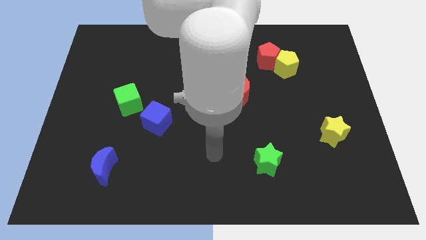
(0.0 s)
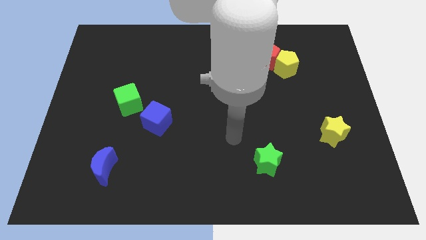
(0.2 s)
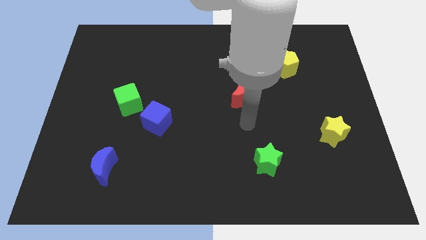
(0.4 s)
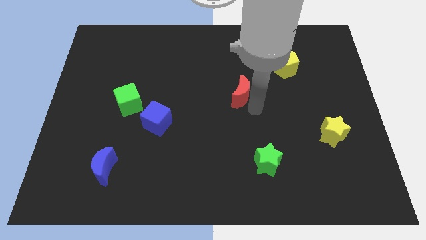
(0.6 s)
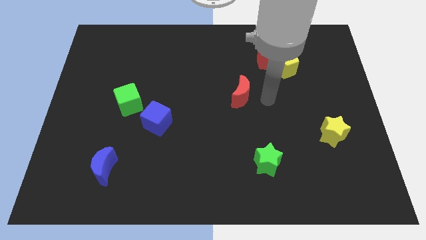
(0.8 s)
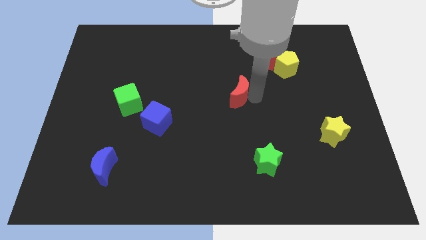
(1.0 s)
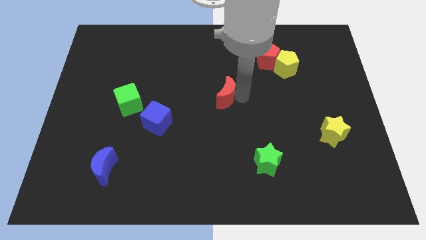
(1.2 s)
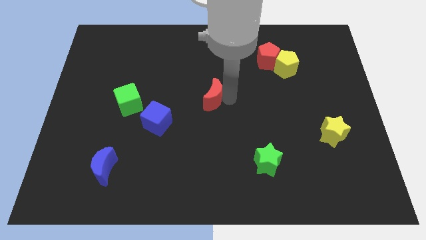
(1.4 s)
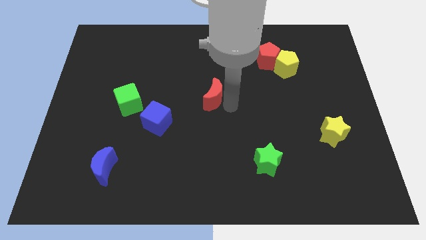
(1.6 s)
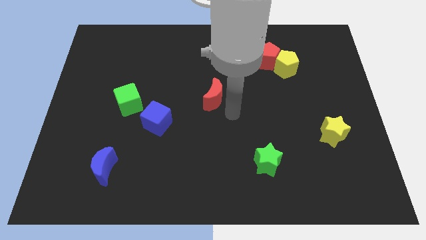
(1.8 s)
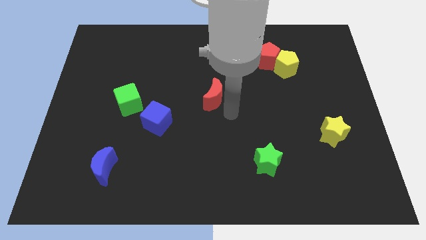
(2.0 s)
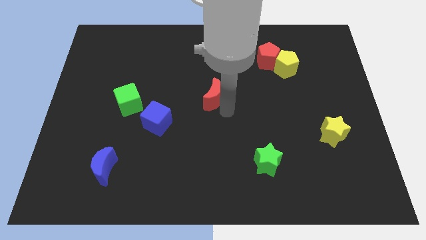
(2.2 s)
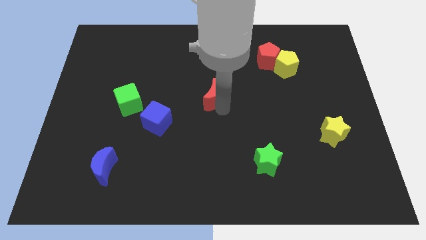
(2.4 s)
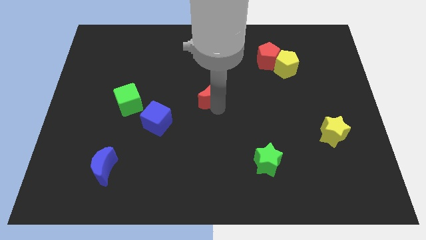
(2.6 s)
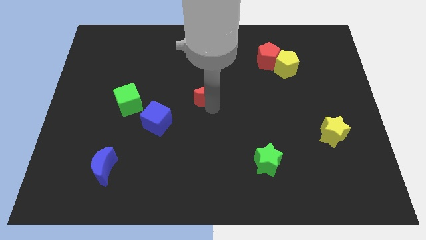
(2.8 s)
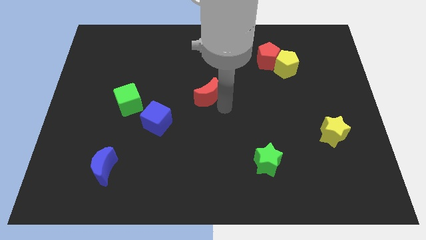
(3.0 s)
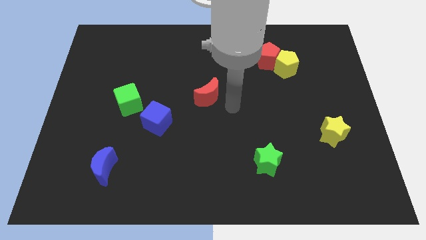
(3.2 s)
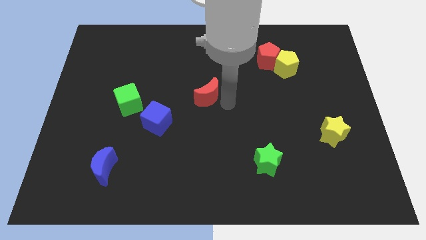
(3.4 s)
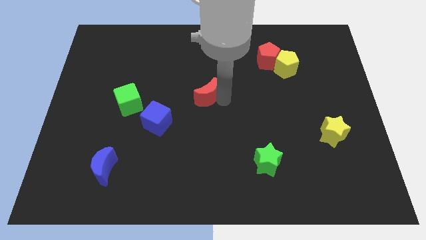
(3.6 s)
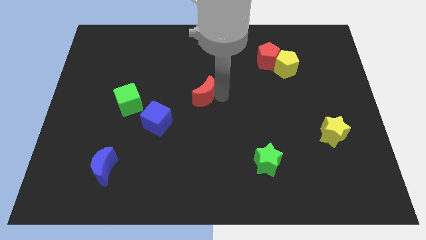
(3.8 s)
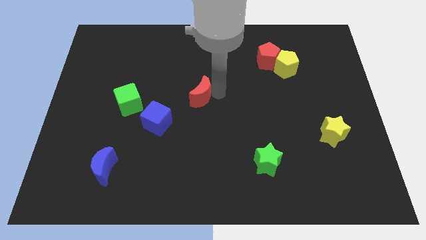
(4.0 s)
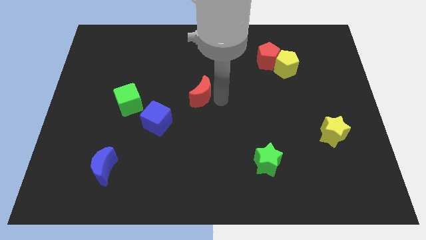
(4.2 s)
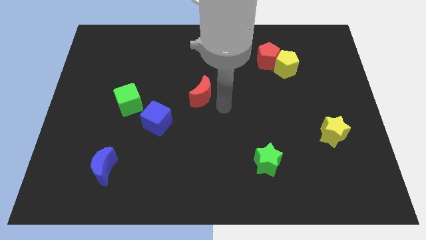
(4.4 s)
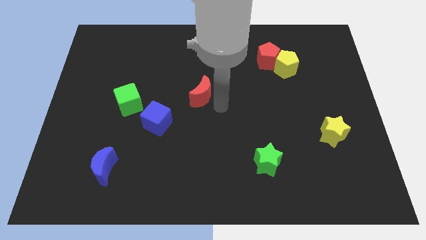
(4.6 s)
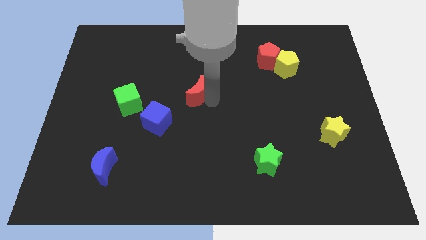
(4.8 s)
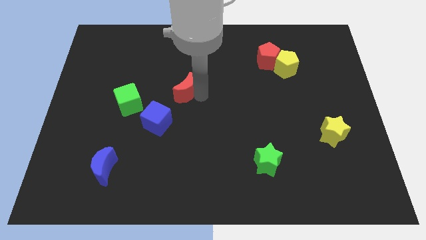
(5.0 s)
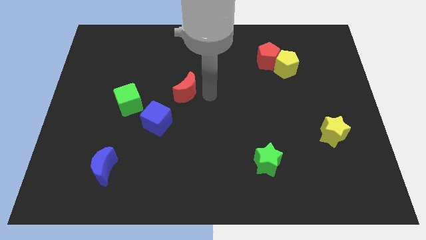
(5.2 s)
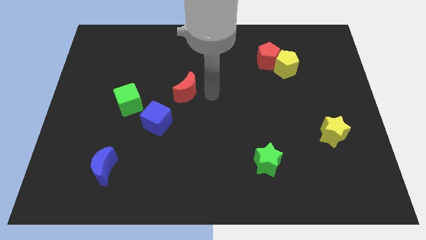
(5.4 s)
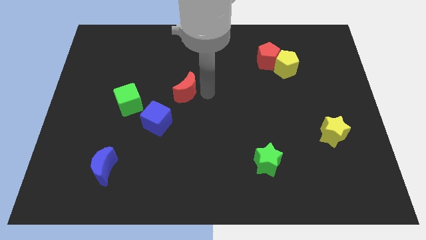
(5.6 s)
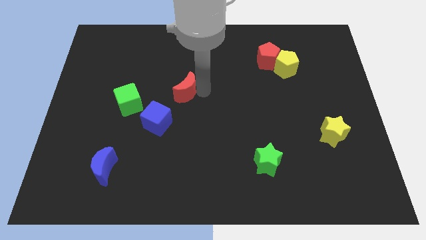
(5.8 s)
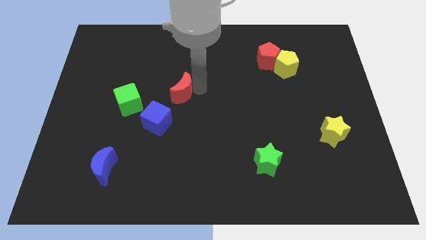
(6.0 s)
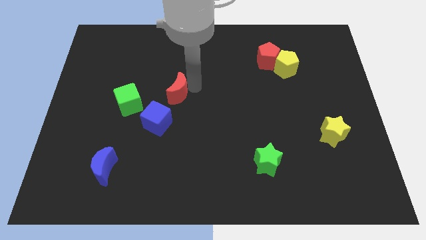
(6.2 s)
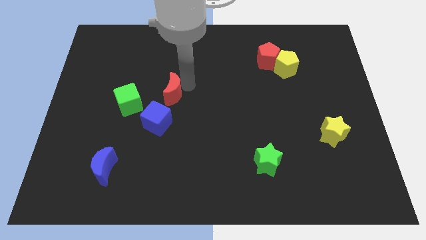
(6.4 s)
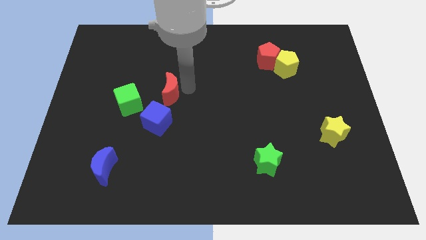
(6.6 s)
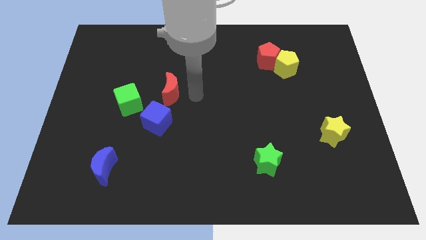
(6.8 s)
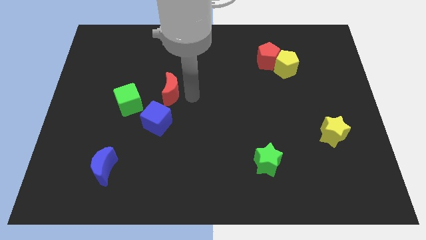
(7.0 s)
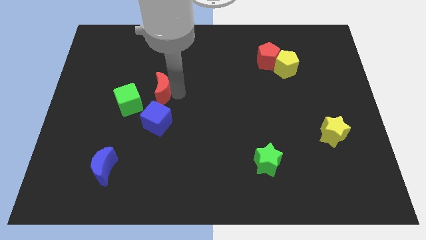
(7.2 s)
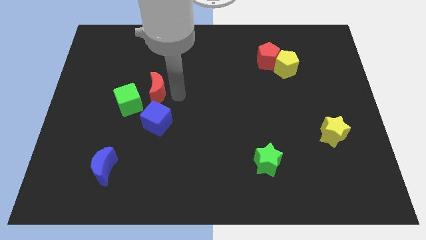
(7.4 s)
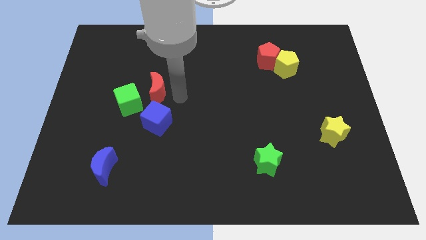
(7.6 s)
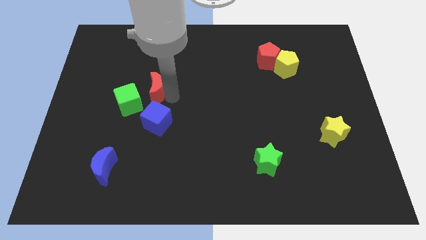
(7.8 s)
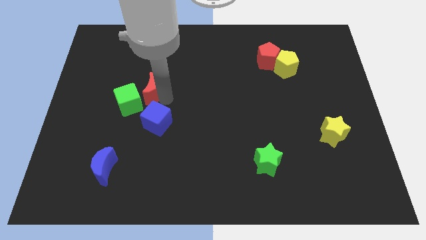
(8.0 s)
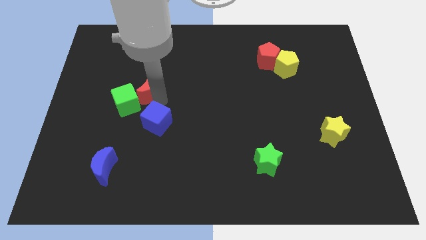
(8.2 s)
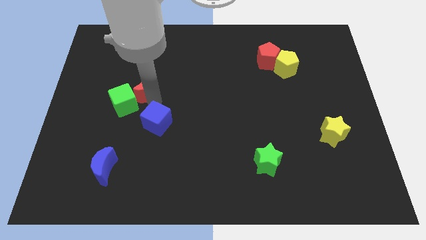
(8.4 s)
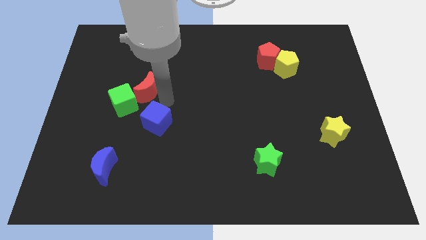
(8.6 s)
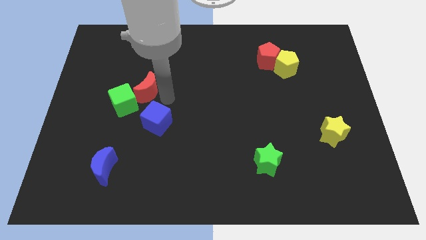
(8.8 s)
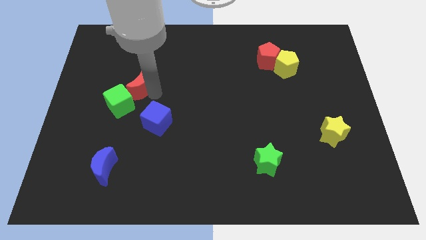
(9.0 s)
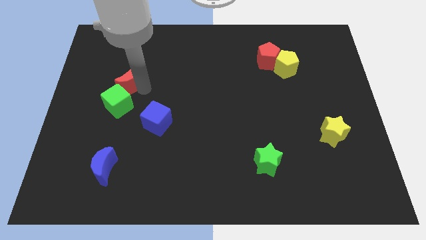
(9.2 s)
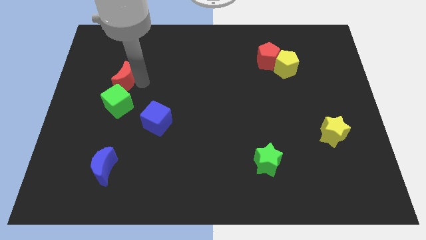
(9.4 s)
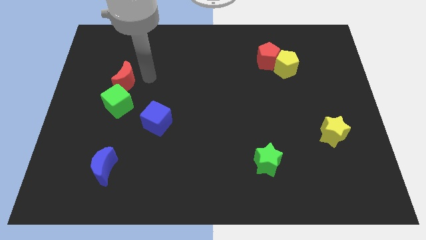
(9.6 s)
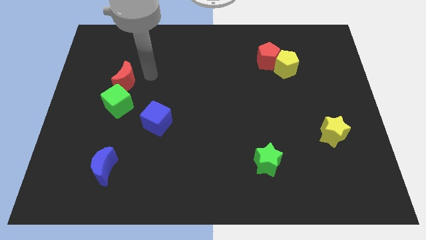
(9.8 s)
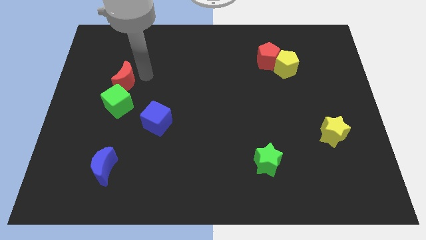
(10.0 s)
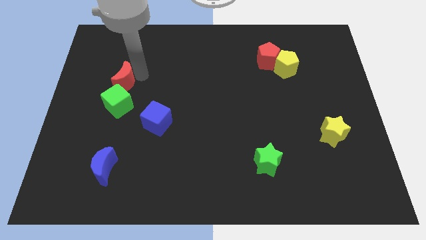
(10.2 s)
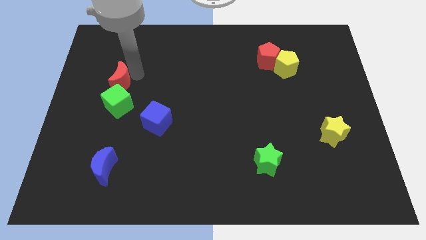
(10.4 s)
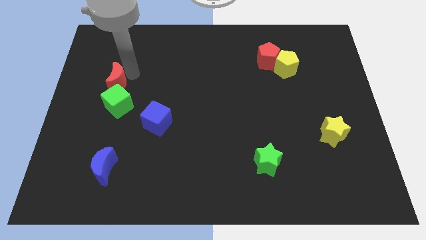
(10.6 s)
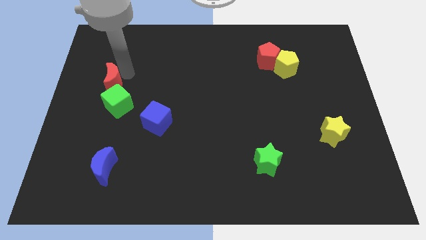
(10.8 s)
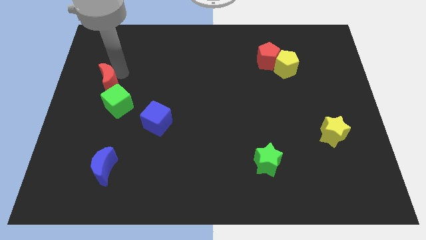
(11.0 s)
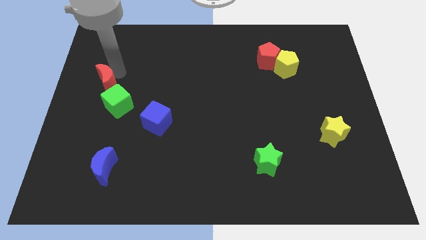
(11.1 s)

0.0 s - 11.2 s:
push the red moon to the center left

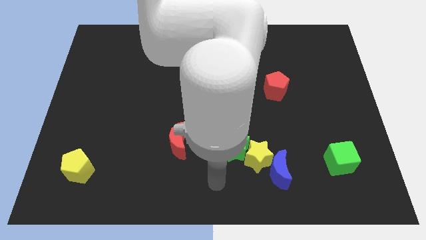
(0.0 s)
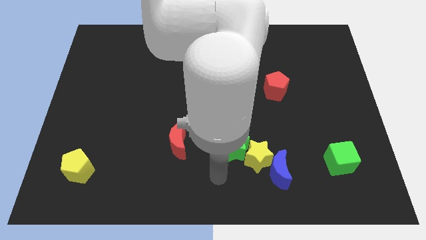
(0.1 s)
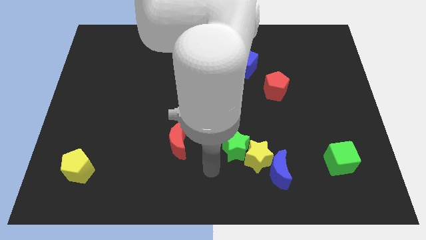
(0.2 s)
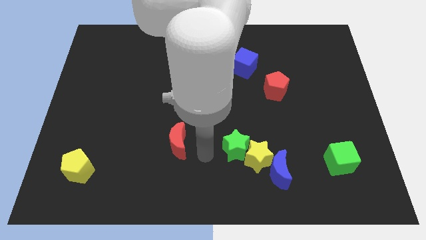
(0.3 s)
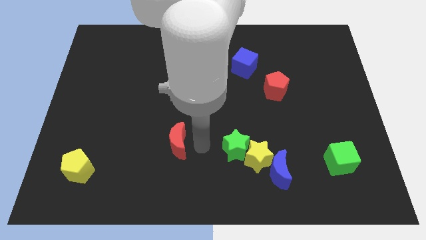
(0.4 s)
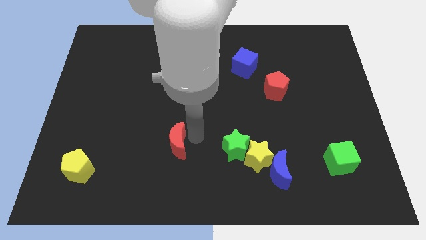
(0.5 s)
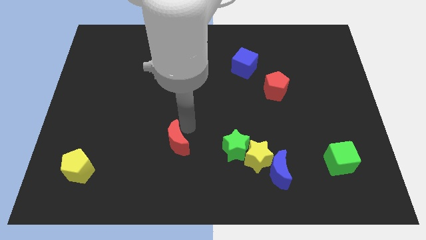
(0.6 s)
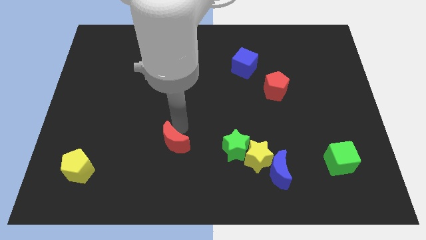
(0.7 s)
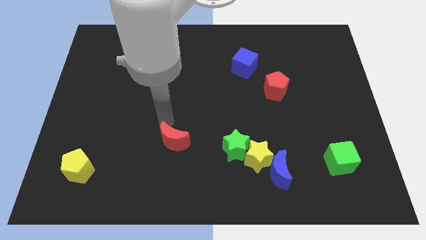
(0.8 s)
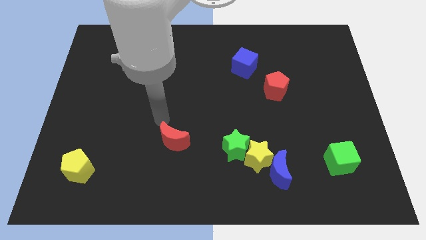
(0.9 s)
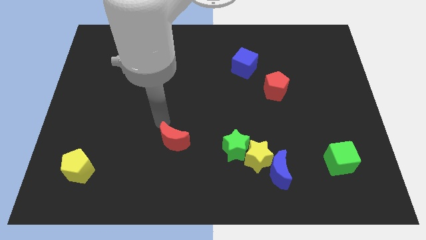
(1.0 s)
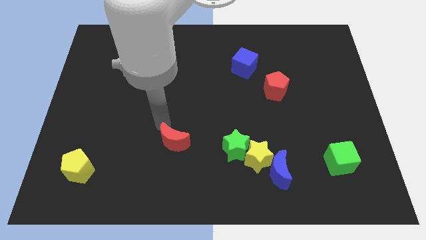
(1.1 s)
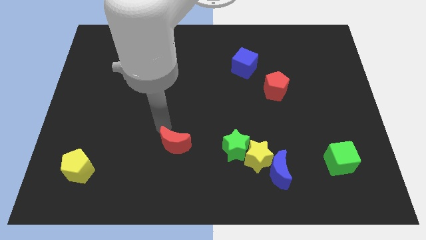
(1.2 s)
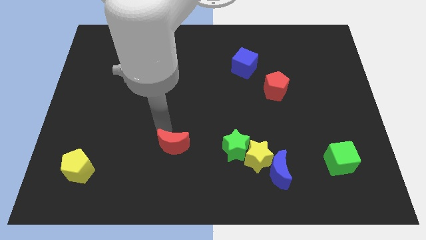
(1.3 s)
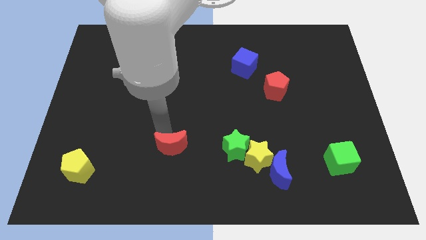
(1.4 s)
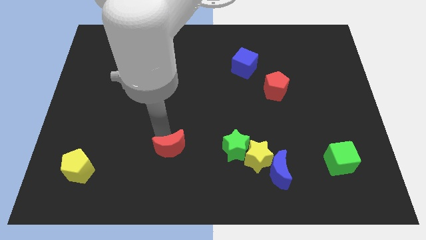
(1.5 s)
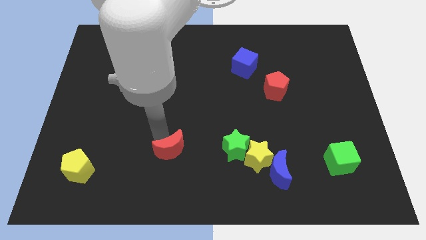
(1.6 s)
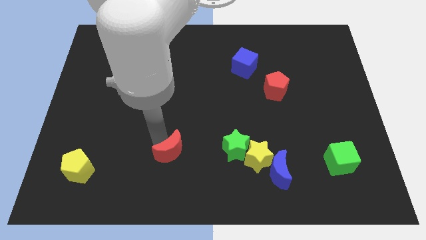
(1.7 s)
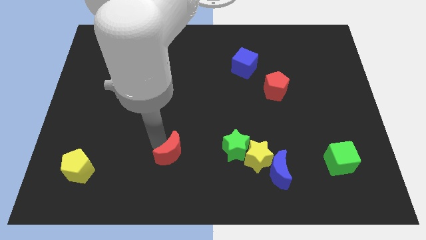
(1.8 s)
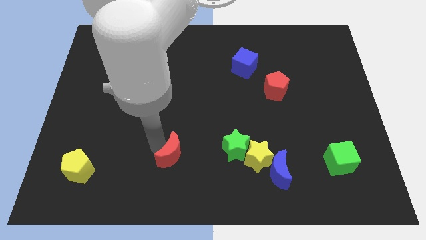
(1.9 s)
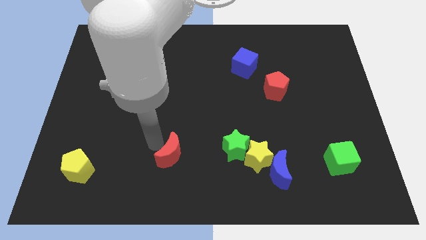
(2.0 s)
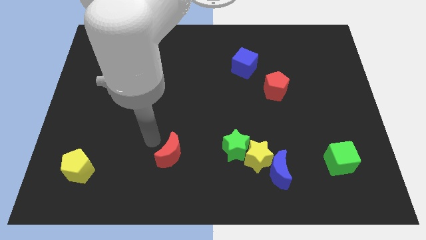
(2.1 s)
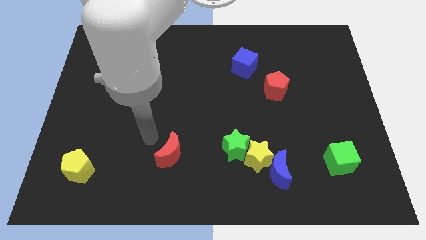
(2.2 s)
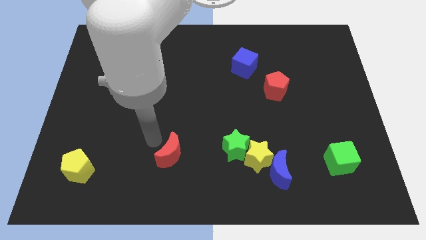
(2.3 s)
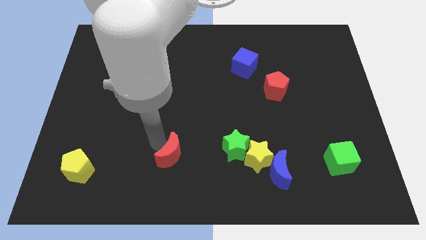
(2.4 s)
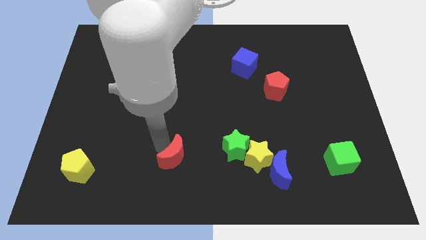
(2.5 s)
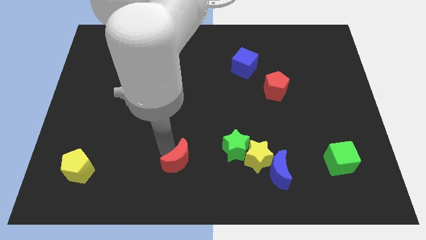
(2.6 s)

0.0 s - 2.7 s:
put the red moon to the bottom
